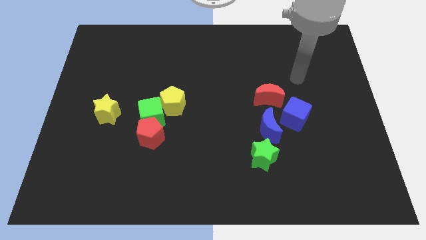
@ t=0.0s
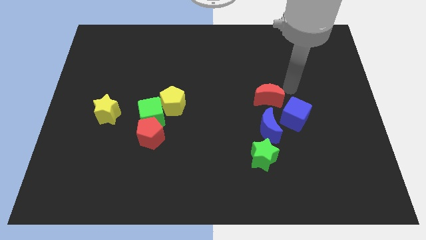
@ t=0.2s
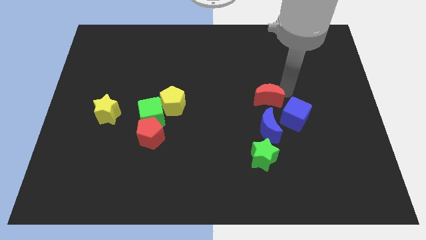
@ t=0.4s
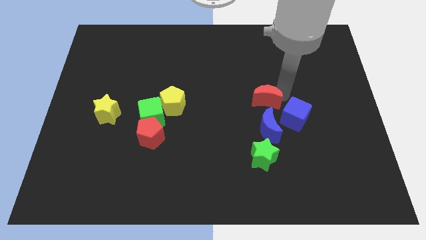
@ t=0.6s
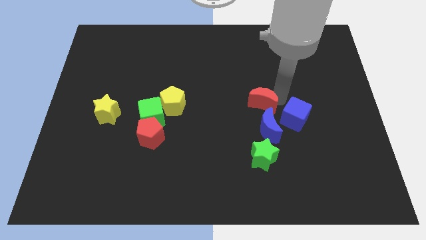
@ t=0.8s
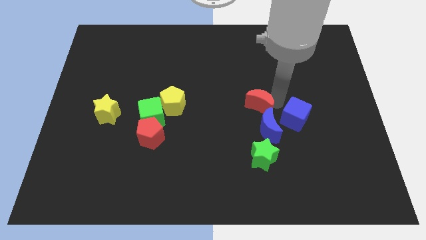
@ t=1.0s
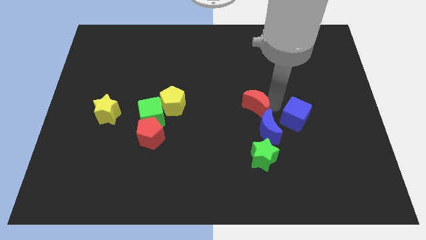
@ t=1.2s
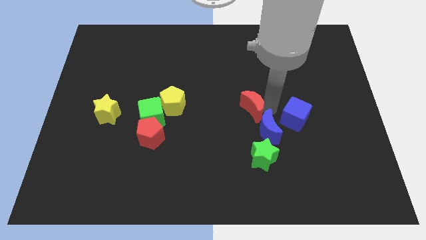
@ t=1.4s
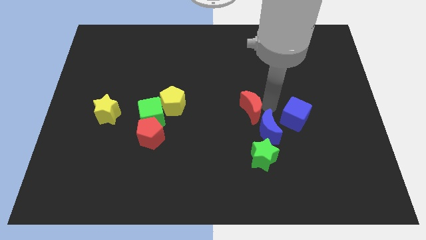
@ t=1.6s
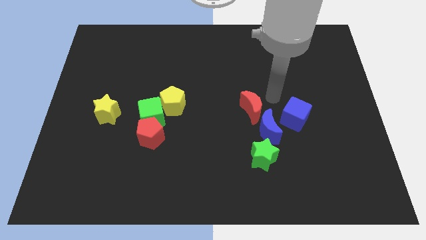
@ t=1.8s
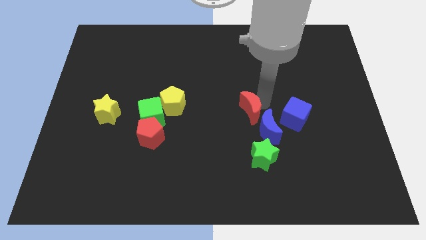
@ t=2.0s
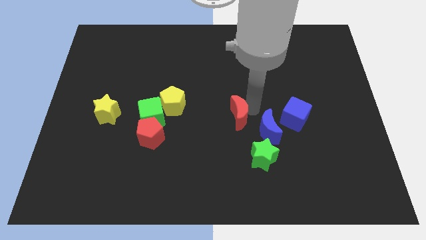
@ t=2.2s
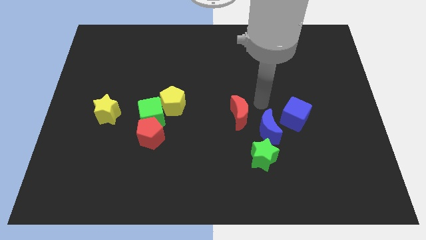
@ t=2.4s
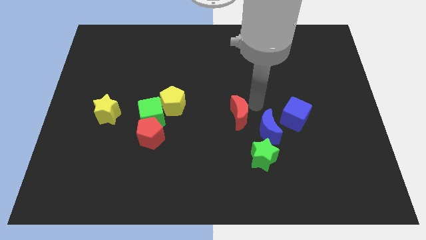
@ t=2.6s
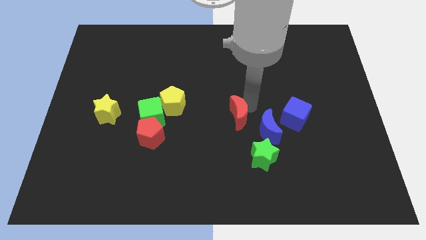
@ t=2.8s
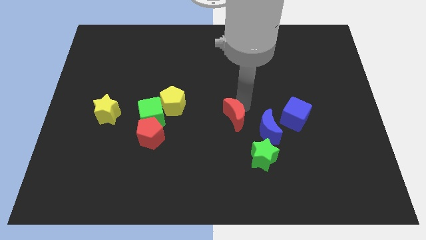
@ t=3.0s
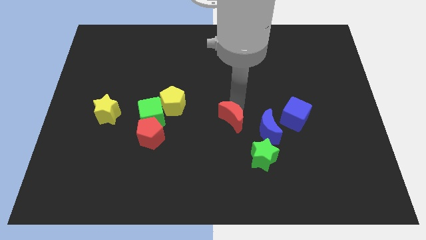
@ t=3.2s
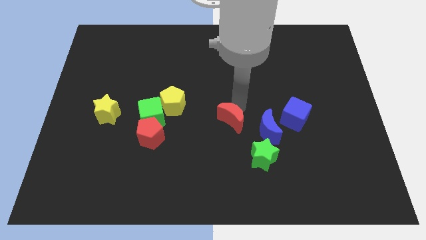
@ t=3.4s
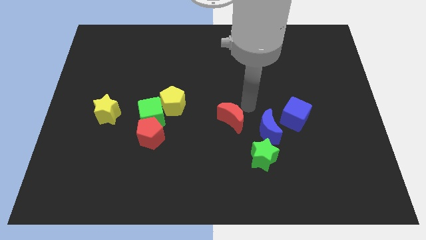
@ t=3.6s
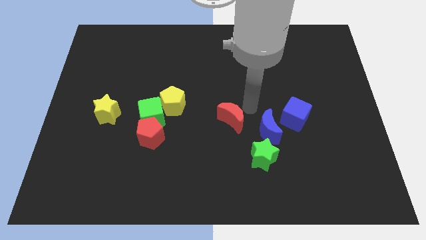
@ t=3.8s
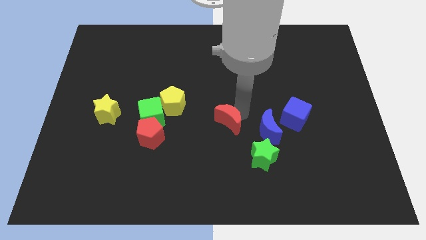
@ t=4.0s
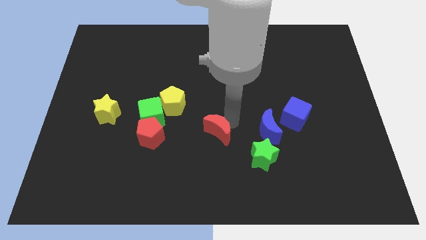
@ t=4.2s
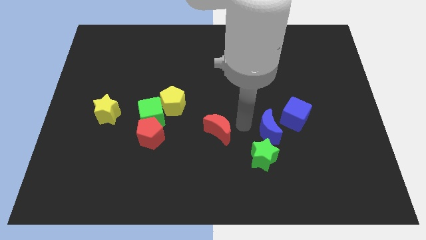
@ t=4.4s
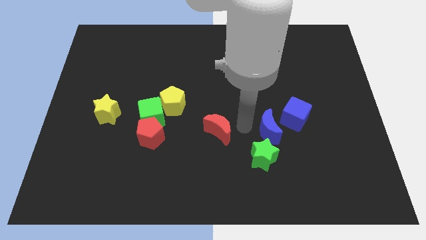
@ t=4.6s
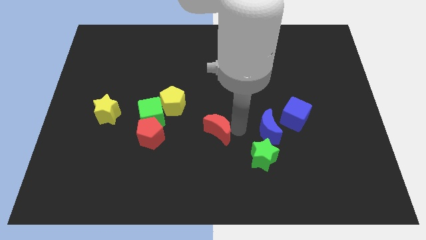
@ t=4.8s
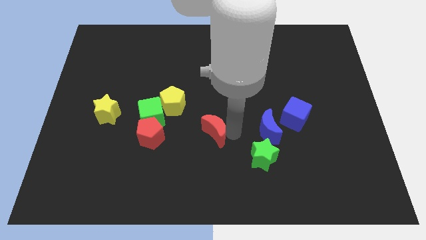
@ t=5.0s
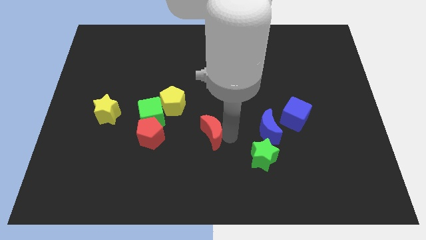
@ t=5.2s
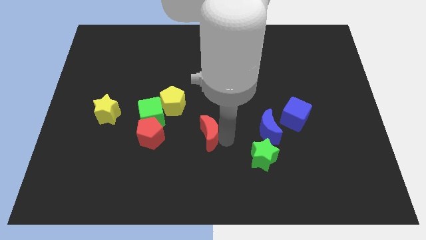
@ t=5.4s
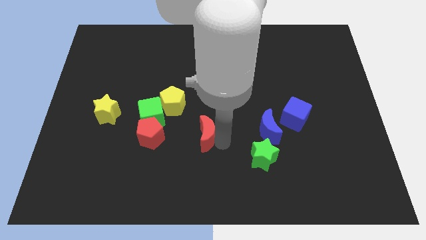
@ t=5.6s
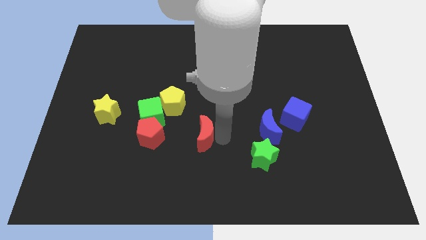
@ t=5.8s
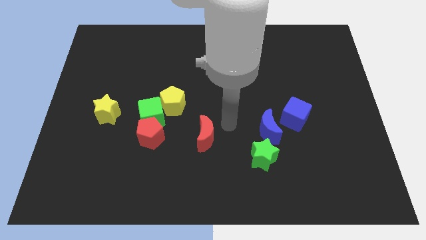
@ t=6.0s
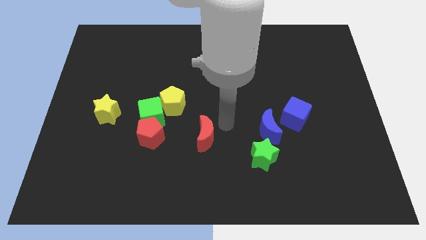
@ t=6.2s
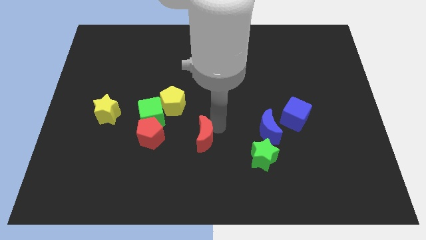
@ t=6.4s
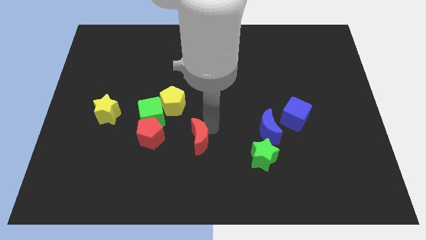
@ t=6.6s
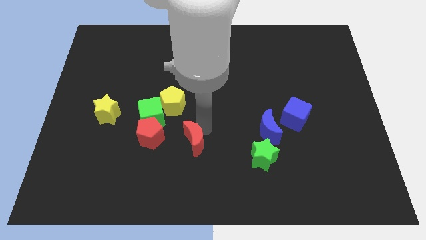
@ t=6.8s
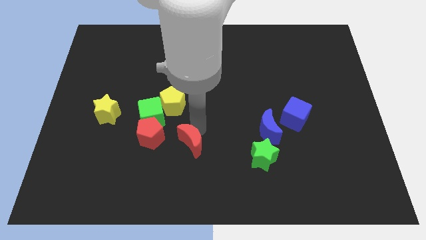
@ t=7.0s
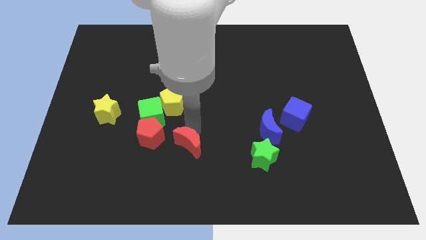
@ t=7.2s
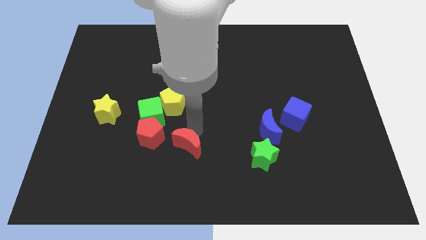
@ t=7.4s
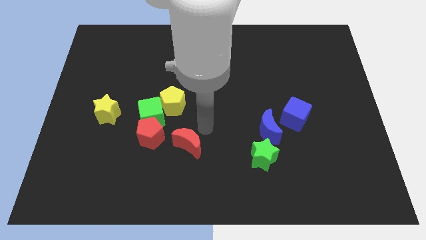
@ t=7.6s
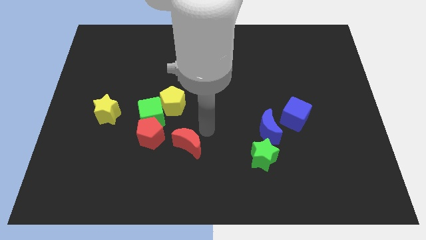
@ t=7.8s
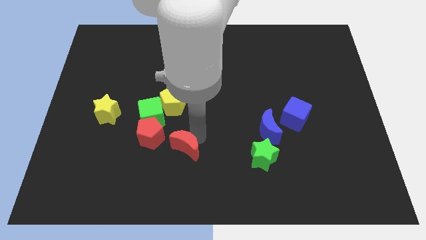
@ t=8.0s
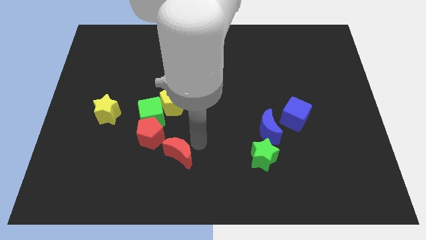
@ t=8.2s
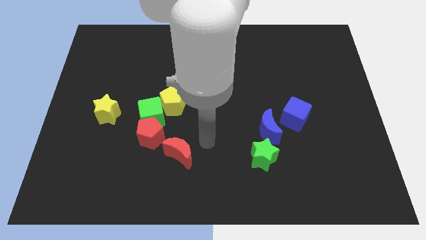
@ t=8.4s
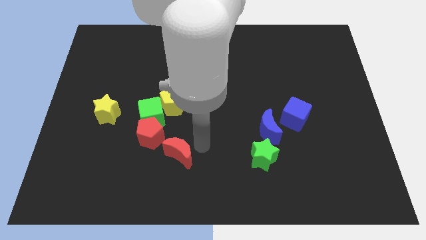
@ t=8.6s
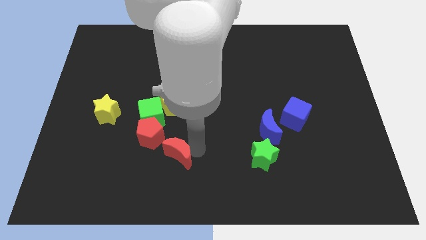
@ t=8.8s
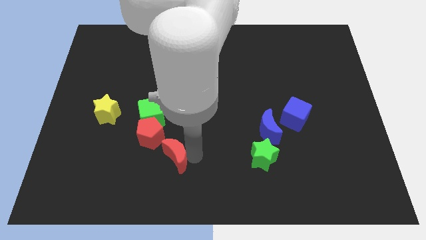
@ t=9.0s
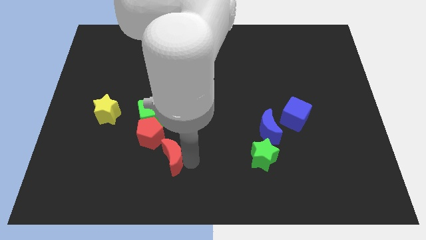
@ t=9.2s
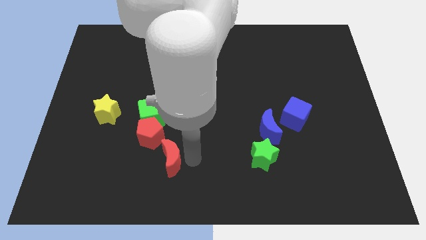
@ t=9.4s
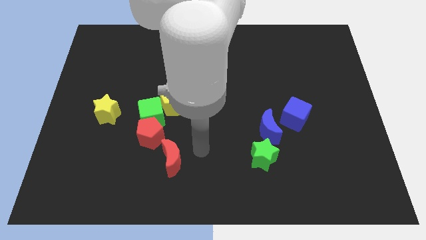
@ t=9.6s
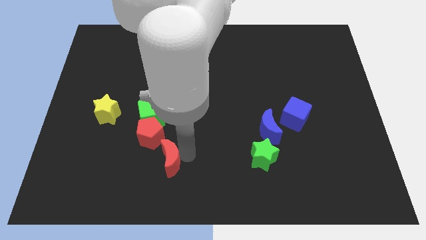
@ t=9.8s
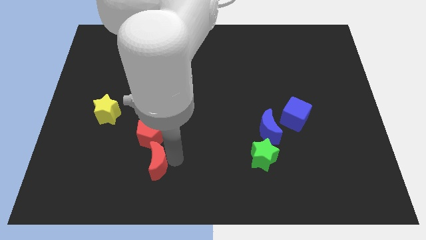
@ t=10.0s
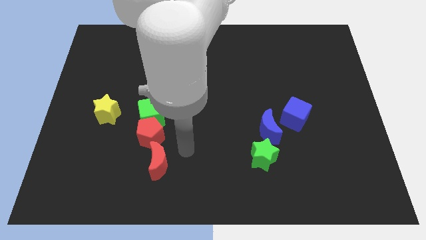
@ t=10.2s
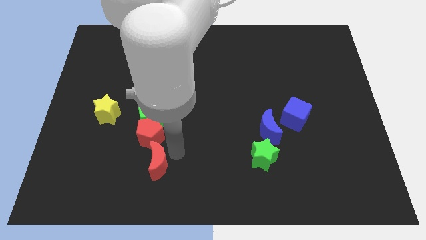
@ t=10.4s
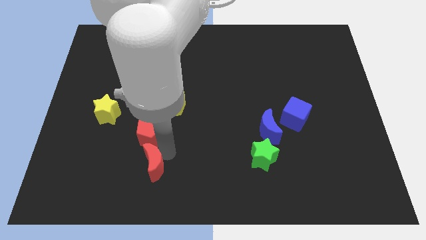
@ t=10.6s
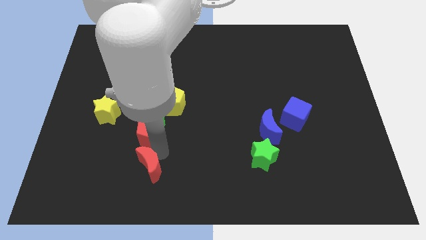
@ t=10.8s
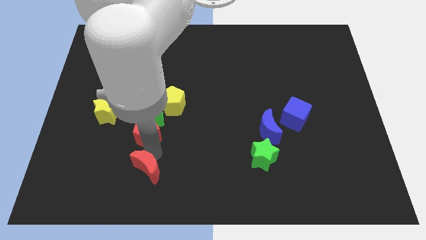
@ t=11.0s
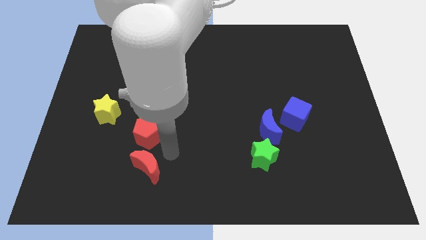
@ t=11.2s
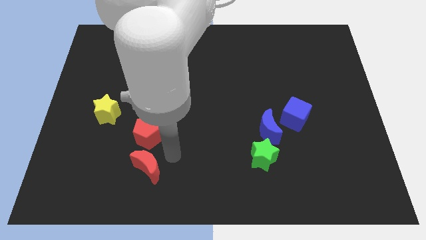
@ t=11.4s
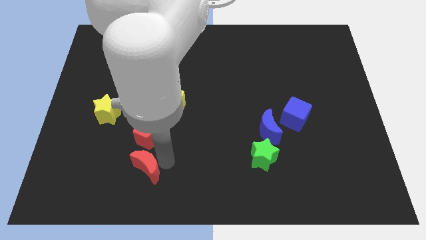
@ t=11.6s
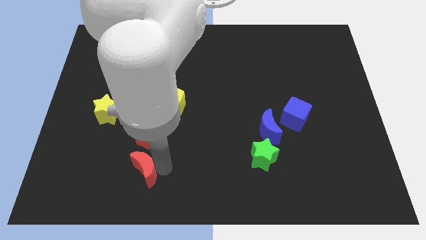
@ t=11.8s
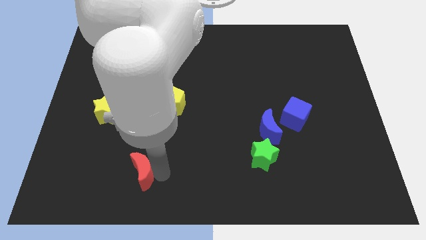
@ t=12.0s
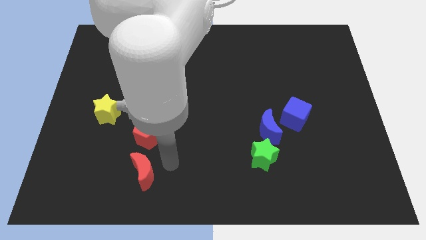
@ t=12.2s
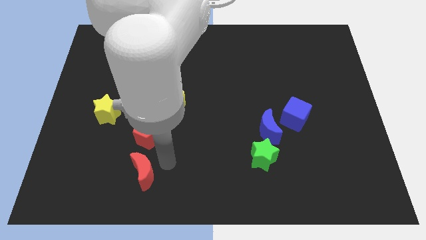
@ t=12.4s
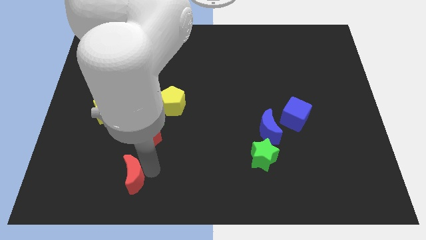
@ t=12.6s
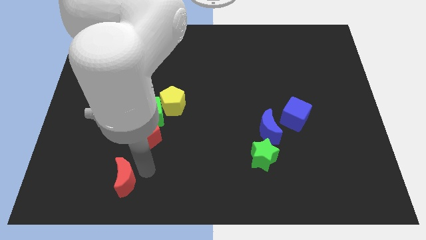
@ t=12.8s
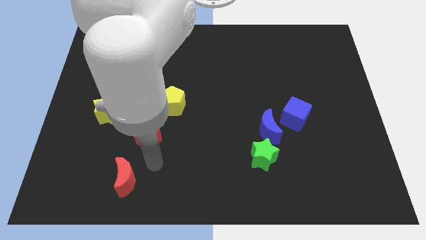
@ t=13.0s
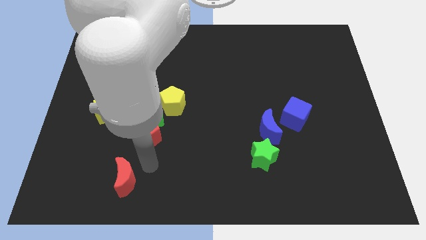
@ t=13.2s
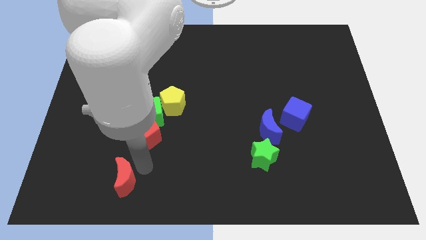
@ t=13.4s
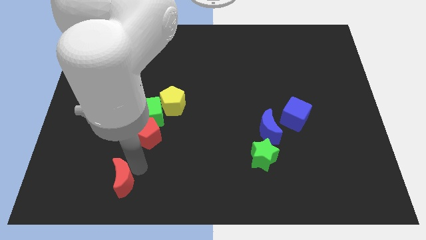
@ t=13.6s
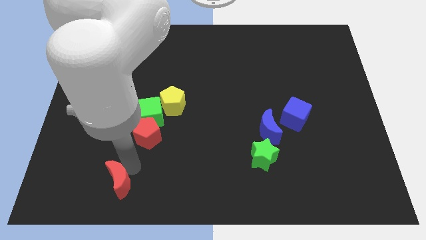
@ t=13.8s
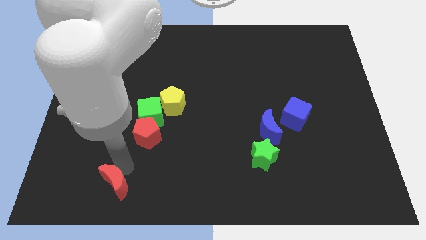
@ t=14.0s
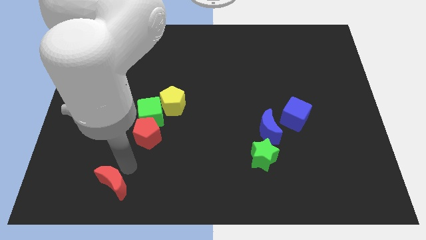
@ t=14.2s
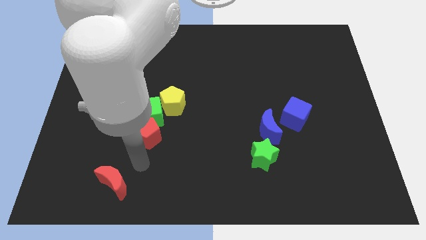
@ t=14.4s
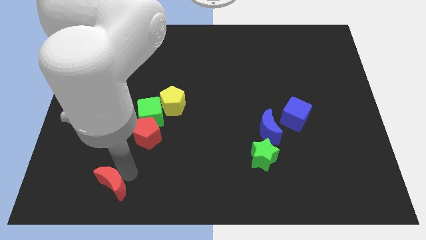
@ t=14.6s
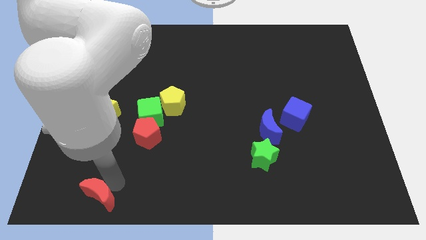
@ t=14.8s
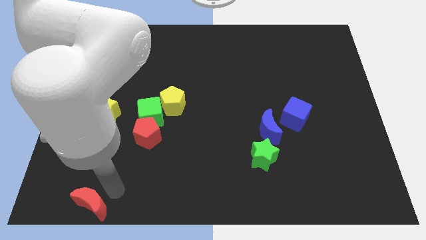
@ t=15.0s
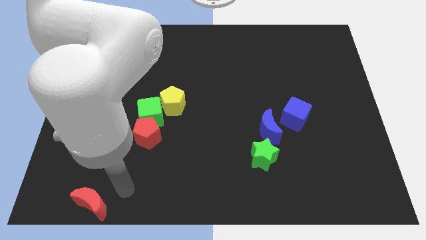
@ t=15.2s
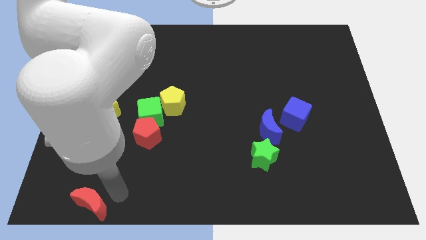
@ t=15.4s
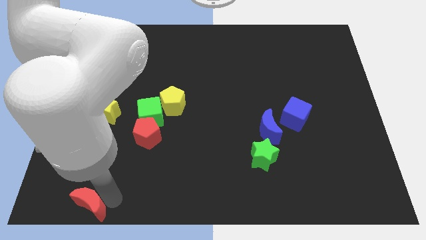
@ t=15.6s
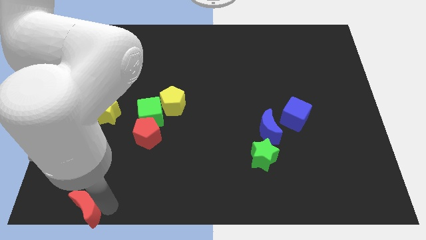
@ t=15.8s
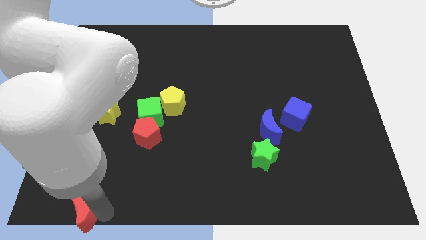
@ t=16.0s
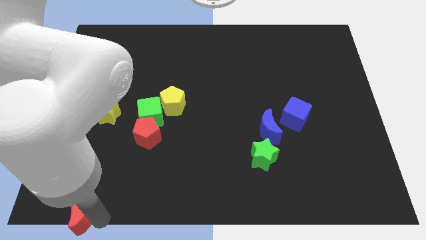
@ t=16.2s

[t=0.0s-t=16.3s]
put the red moon to the bottom left corner
